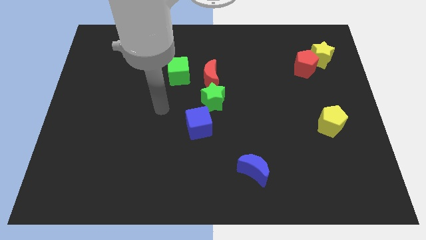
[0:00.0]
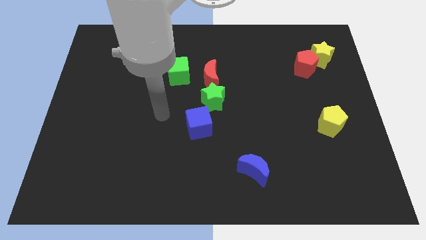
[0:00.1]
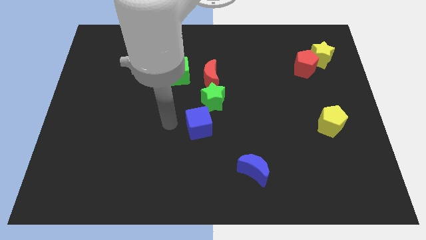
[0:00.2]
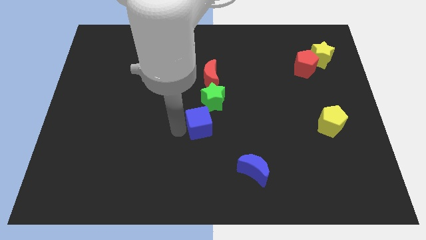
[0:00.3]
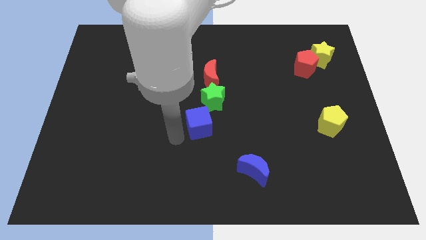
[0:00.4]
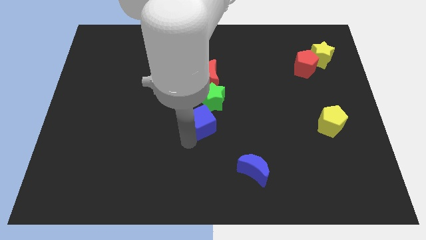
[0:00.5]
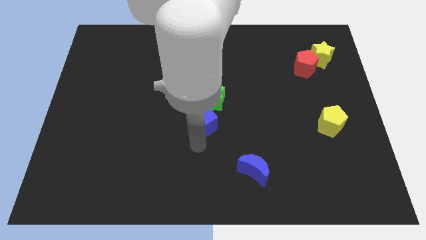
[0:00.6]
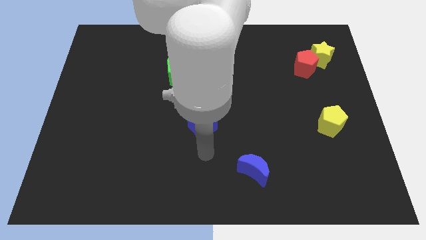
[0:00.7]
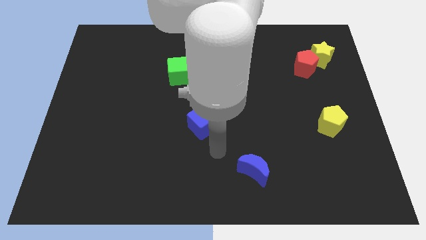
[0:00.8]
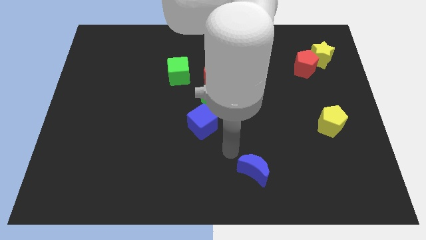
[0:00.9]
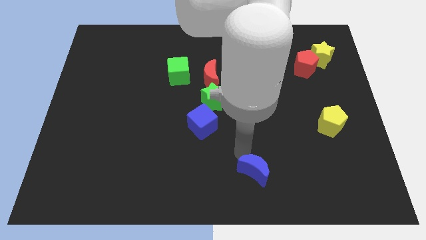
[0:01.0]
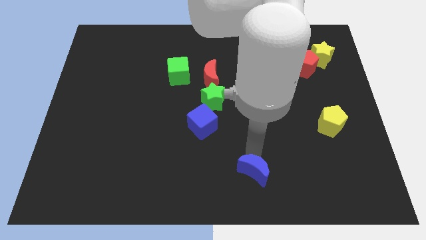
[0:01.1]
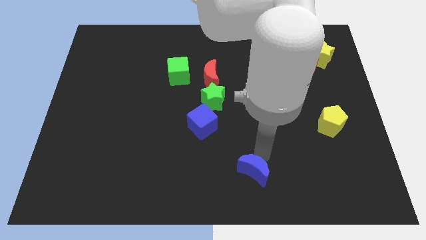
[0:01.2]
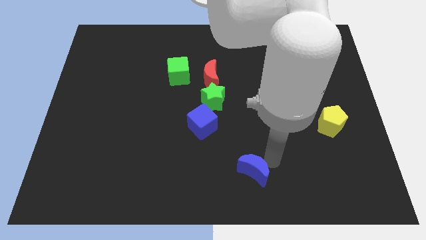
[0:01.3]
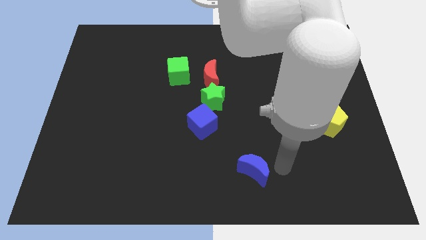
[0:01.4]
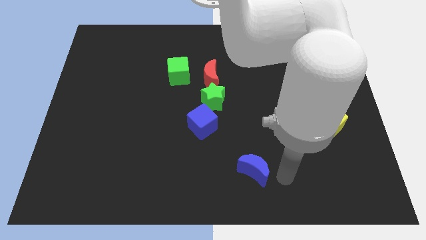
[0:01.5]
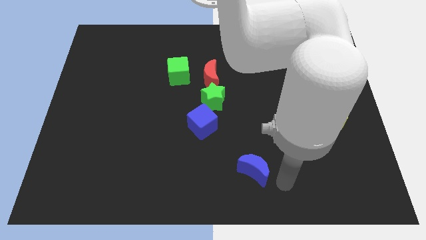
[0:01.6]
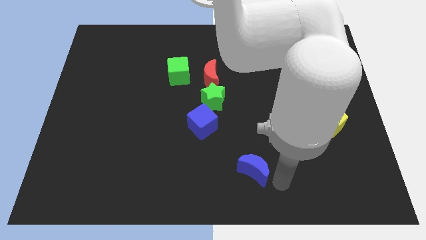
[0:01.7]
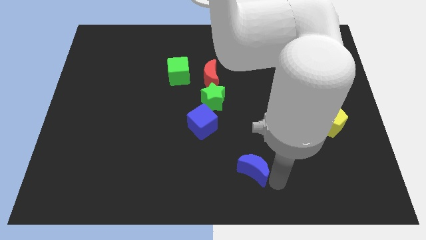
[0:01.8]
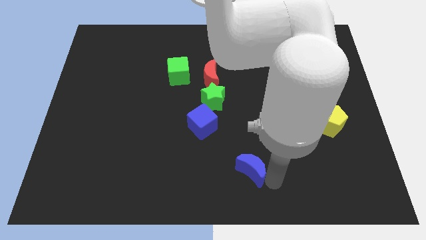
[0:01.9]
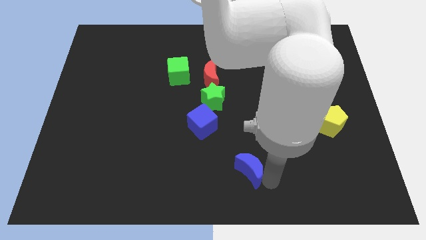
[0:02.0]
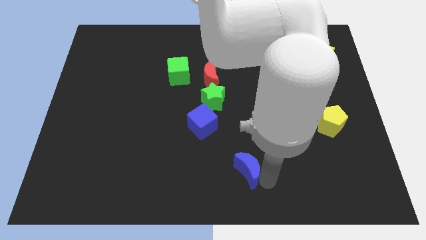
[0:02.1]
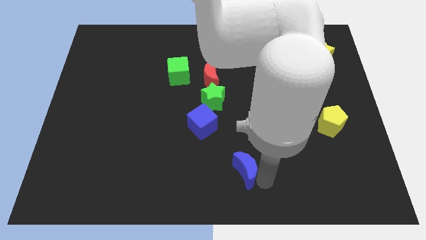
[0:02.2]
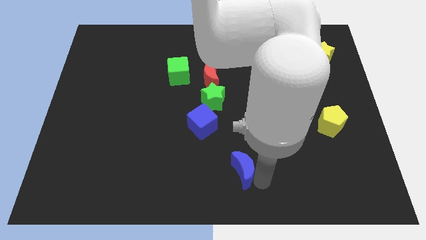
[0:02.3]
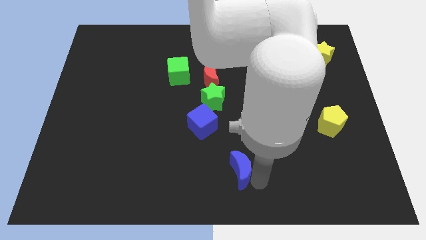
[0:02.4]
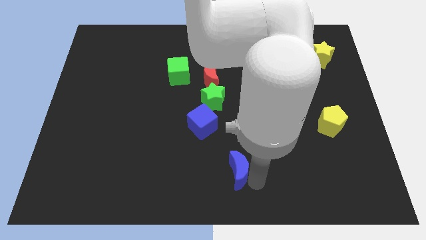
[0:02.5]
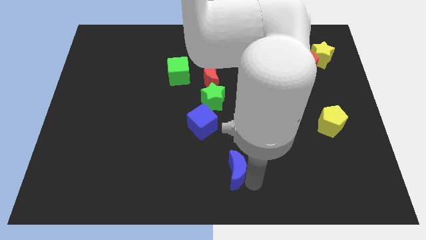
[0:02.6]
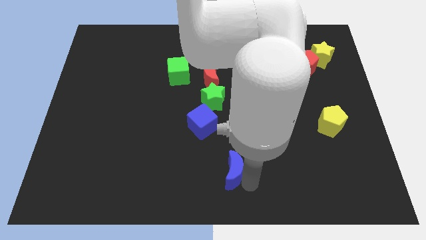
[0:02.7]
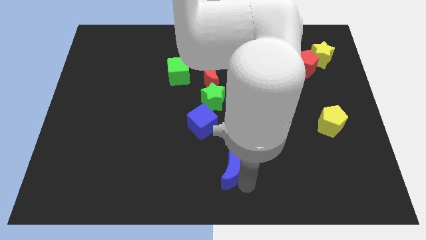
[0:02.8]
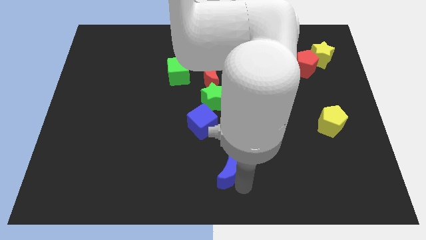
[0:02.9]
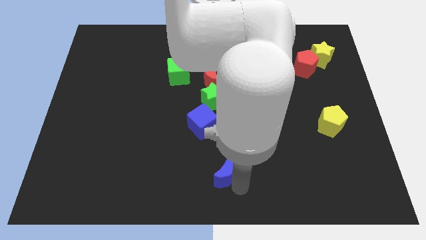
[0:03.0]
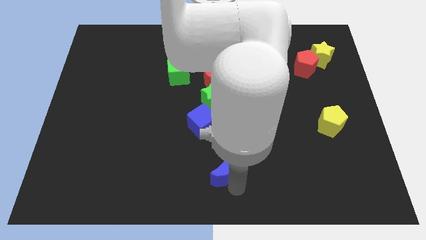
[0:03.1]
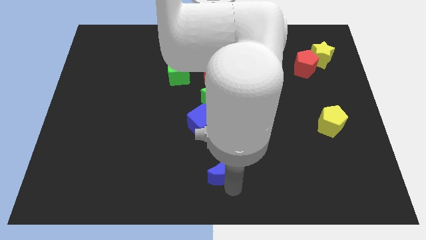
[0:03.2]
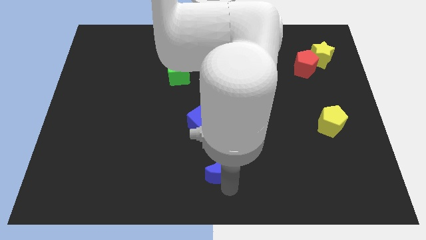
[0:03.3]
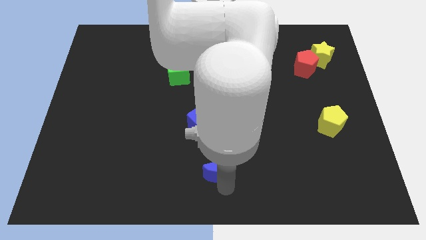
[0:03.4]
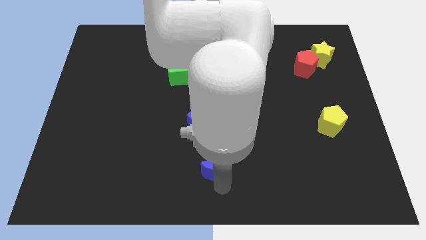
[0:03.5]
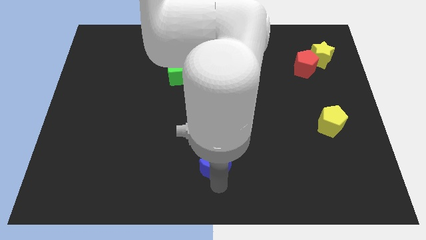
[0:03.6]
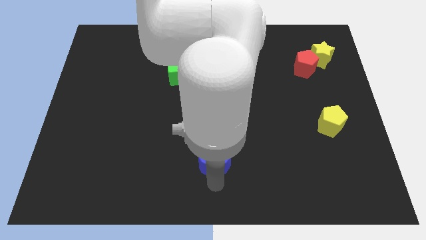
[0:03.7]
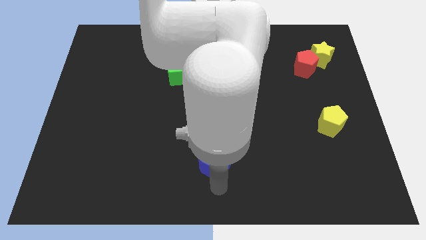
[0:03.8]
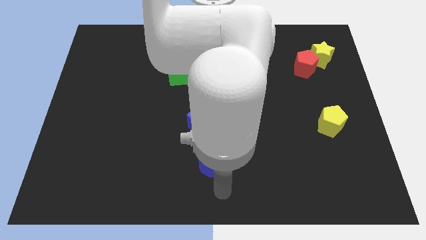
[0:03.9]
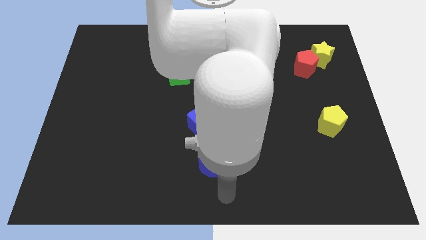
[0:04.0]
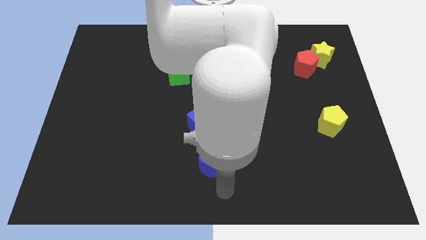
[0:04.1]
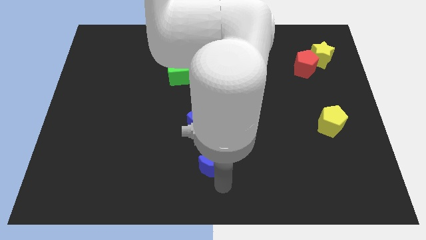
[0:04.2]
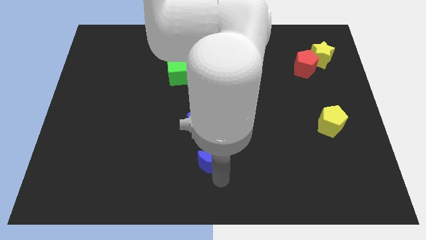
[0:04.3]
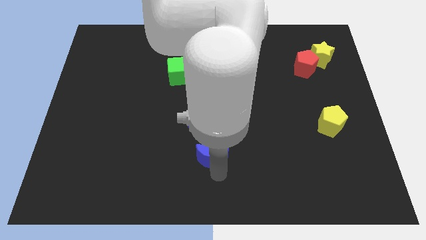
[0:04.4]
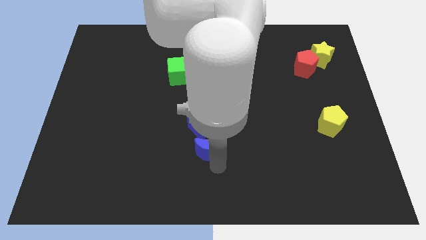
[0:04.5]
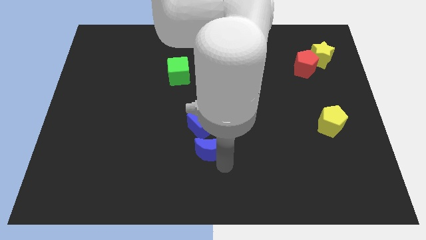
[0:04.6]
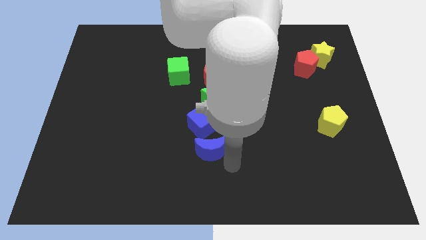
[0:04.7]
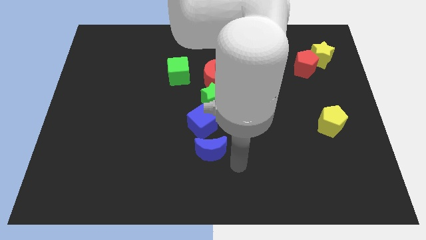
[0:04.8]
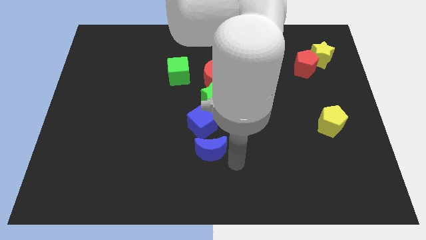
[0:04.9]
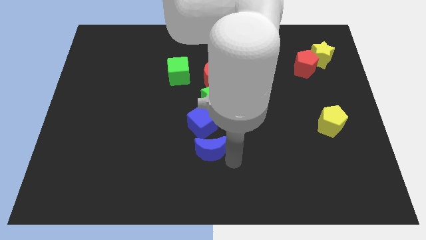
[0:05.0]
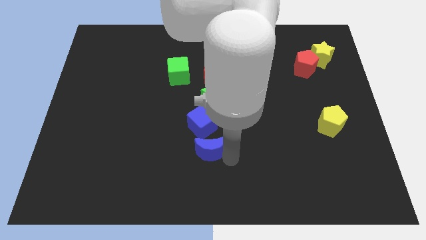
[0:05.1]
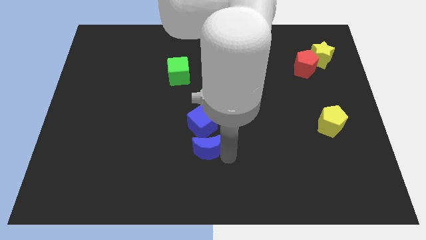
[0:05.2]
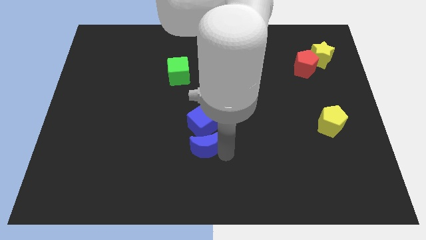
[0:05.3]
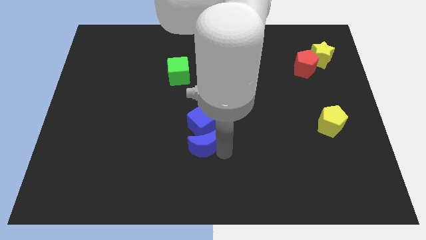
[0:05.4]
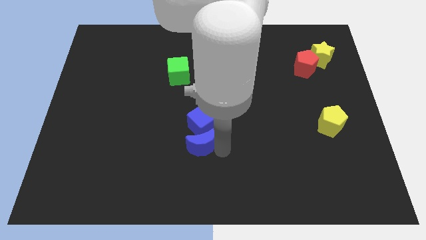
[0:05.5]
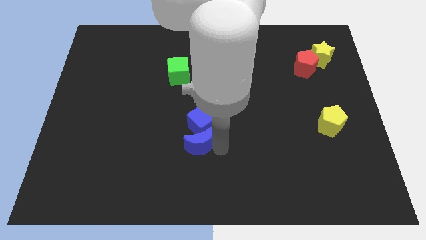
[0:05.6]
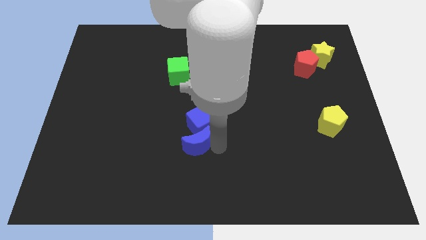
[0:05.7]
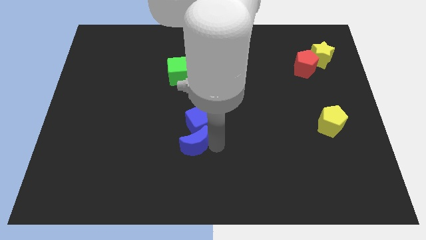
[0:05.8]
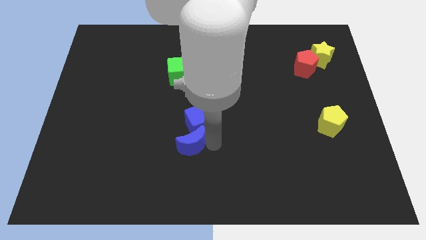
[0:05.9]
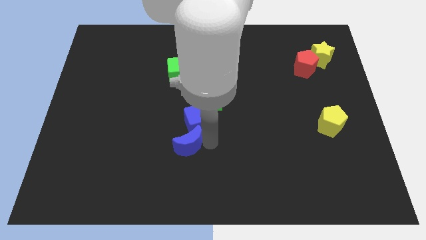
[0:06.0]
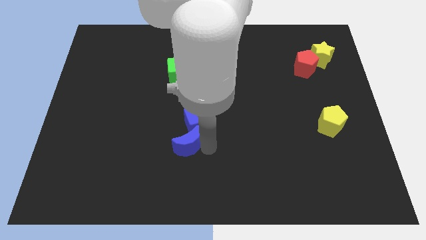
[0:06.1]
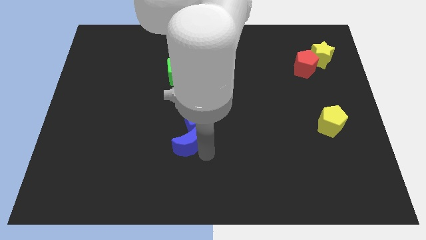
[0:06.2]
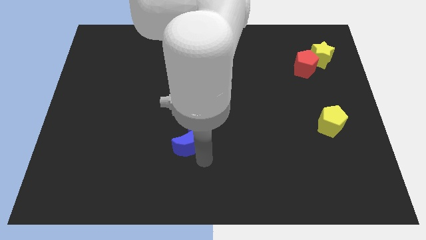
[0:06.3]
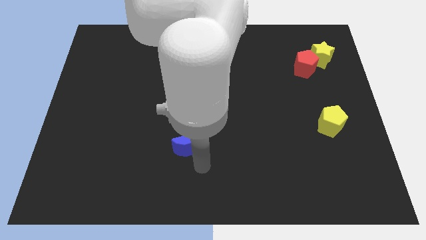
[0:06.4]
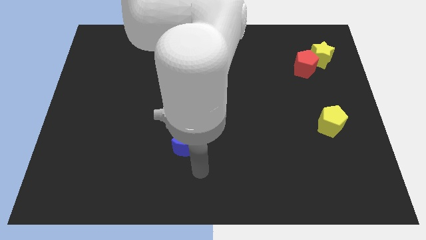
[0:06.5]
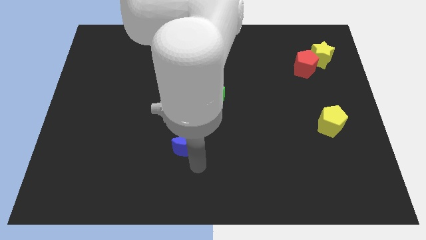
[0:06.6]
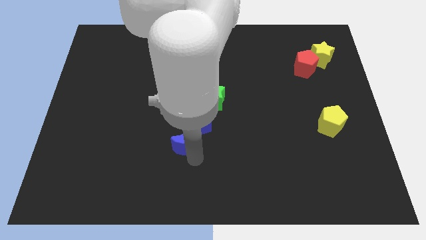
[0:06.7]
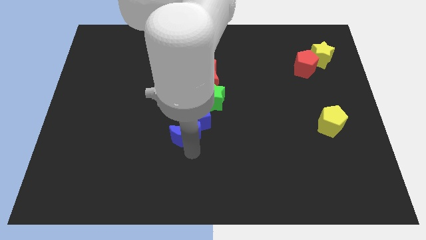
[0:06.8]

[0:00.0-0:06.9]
put the blue moon diagonally down and to the left of the green star

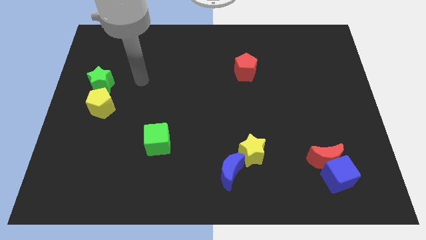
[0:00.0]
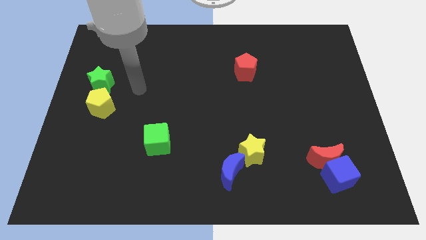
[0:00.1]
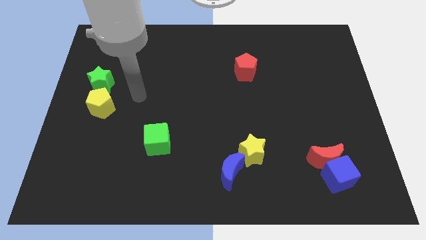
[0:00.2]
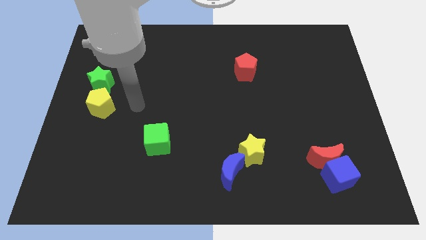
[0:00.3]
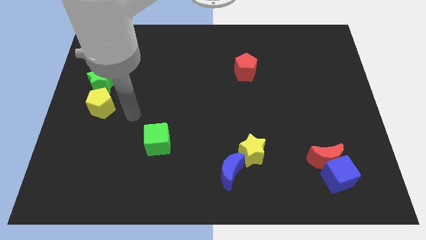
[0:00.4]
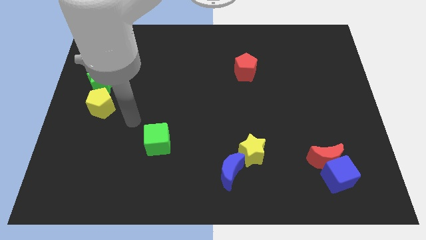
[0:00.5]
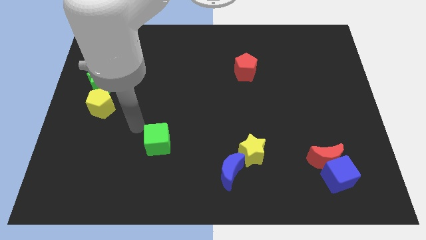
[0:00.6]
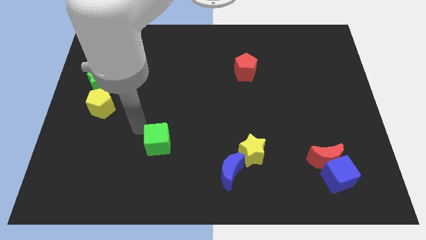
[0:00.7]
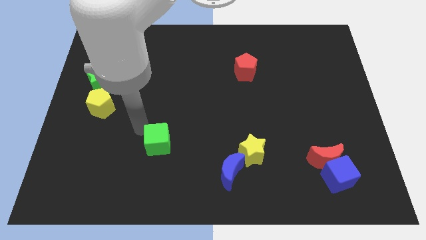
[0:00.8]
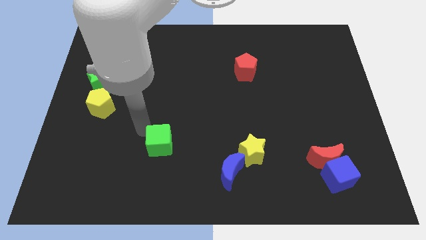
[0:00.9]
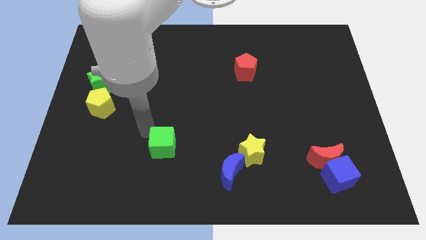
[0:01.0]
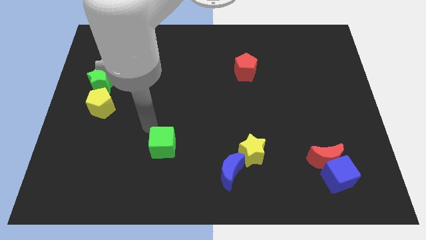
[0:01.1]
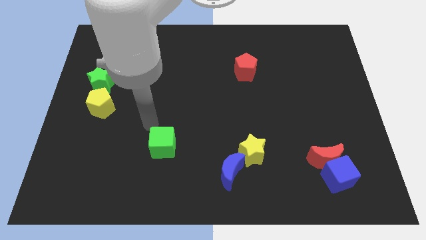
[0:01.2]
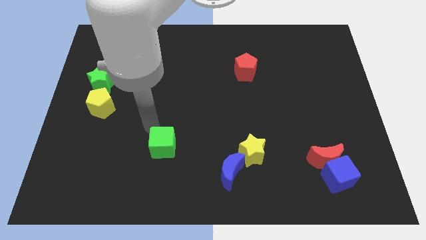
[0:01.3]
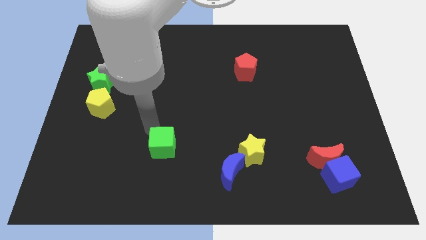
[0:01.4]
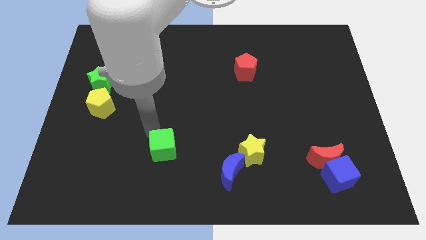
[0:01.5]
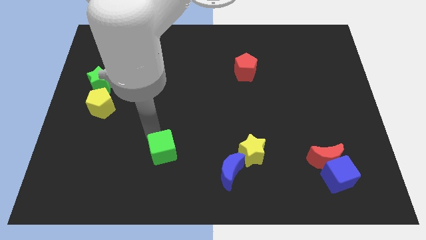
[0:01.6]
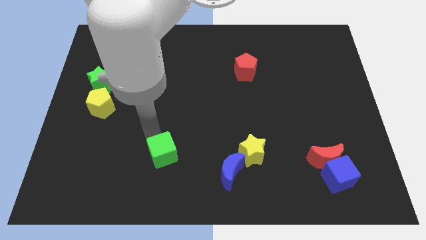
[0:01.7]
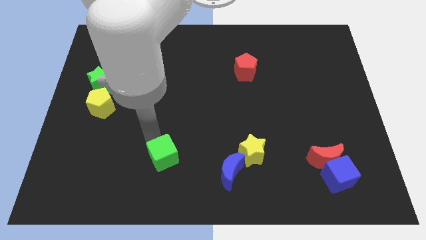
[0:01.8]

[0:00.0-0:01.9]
put the green cube to the left of the blue moon
